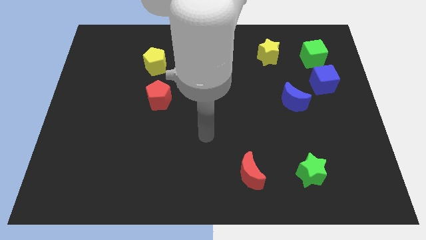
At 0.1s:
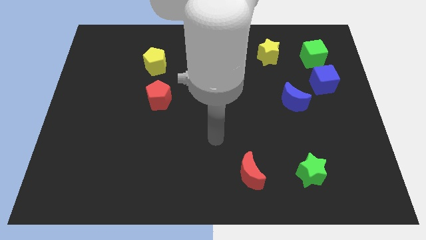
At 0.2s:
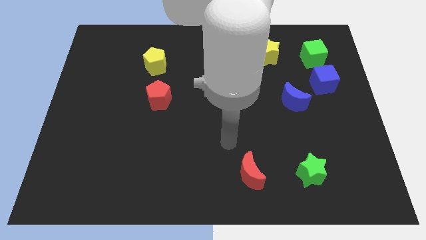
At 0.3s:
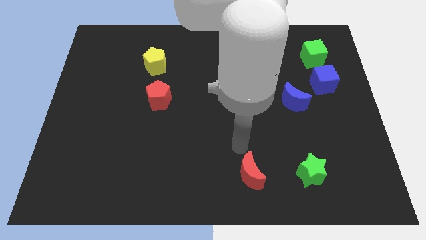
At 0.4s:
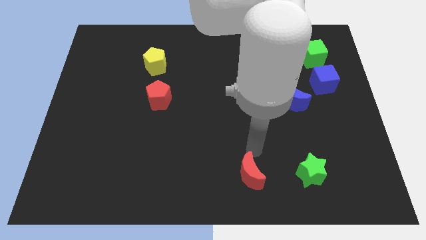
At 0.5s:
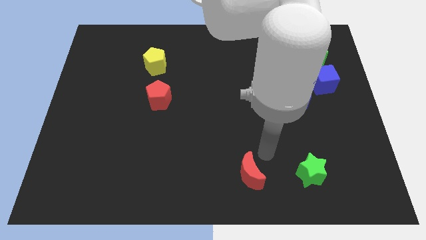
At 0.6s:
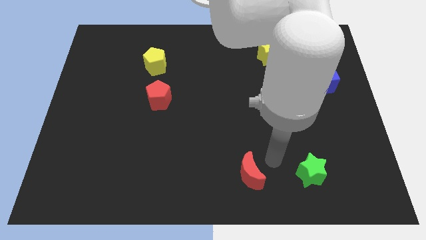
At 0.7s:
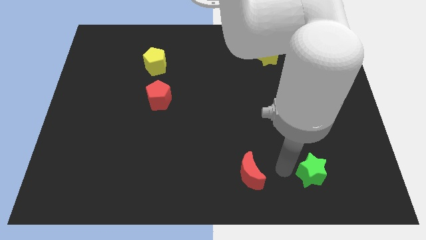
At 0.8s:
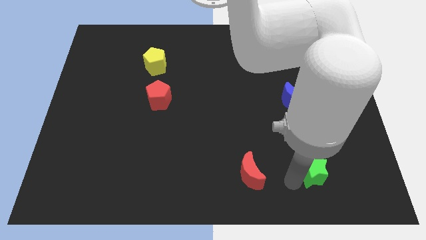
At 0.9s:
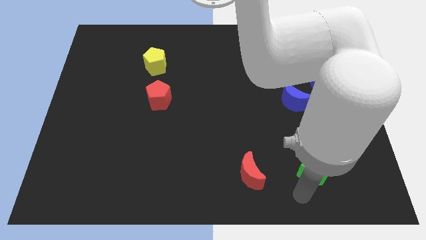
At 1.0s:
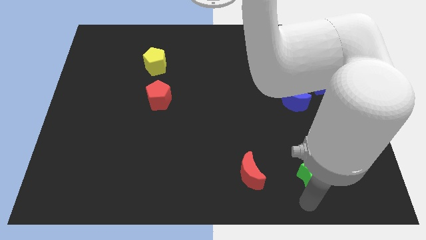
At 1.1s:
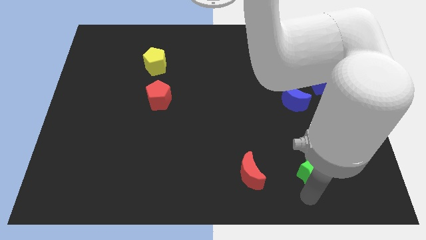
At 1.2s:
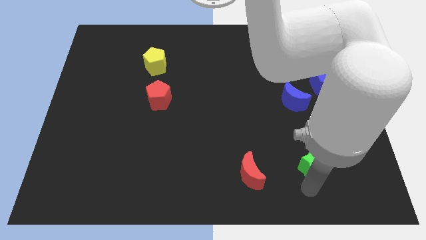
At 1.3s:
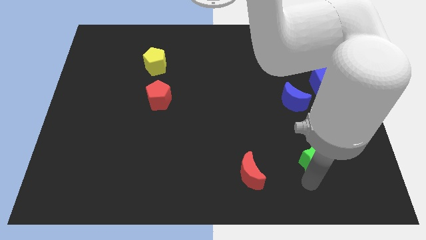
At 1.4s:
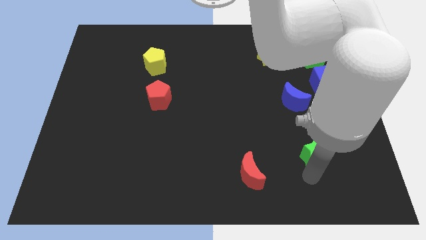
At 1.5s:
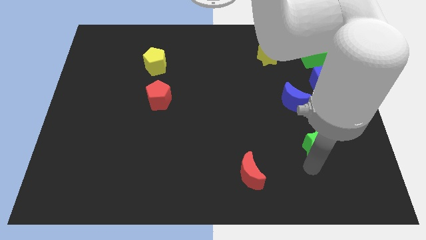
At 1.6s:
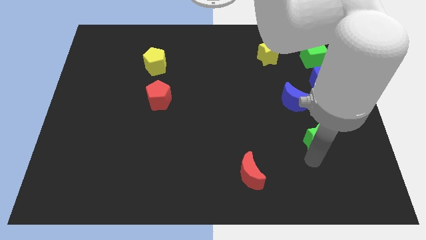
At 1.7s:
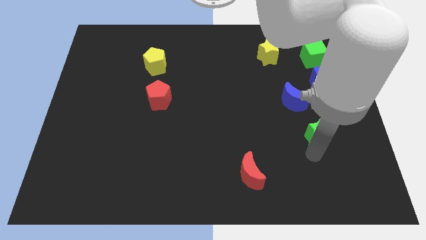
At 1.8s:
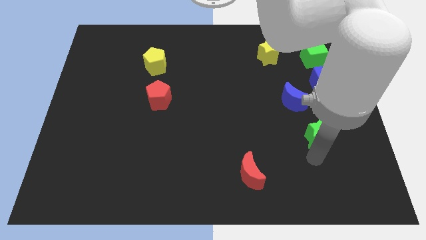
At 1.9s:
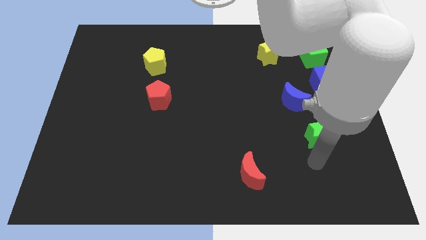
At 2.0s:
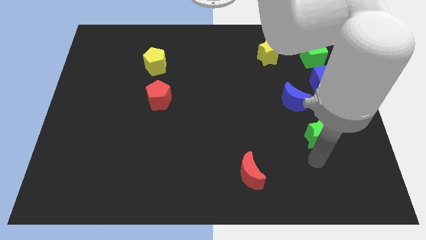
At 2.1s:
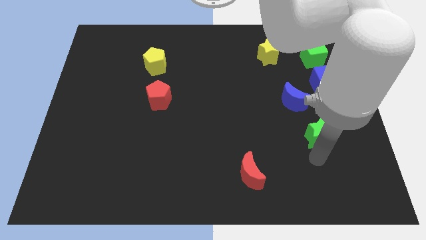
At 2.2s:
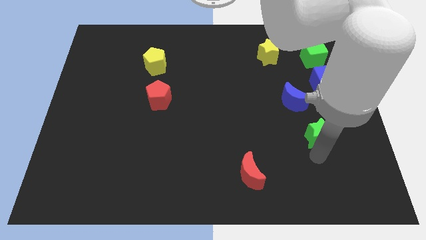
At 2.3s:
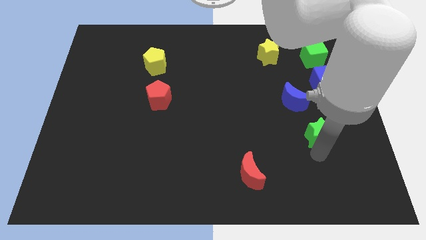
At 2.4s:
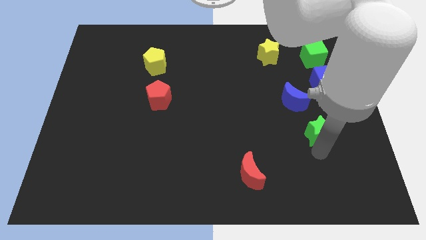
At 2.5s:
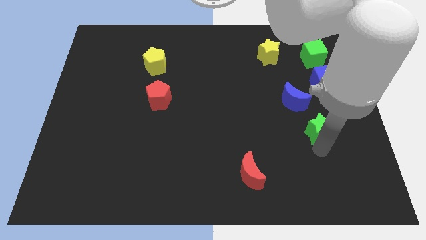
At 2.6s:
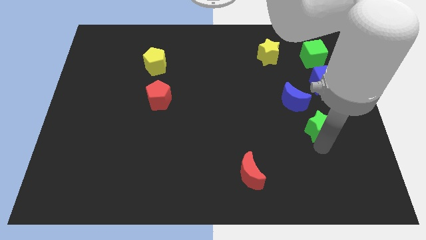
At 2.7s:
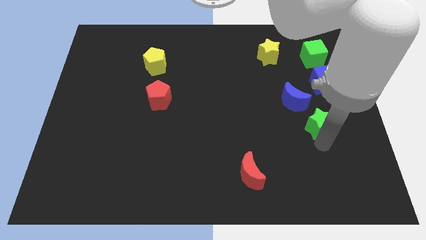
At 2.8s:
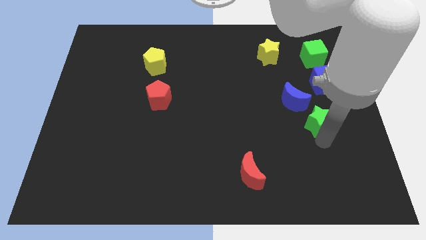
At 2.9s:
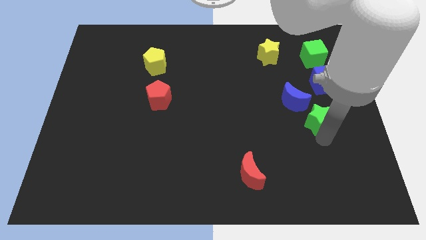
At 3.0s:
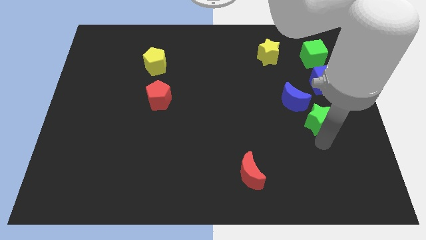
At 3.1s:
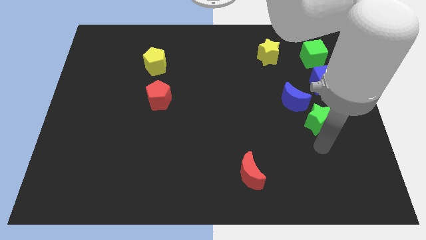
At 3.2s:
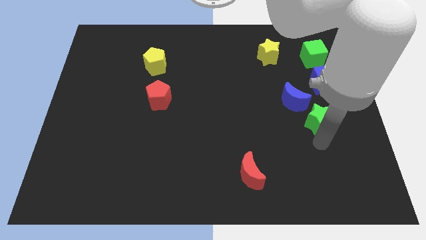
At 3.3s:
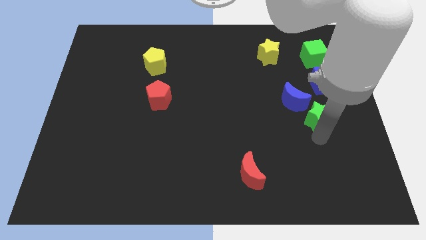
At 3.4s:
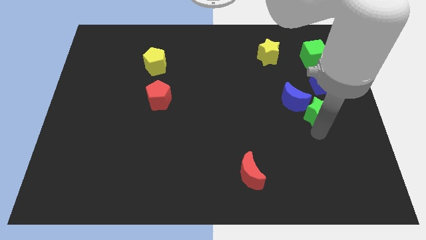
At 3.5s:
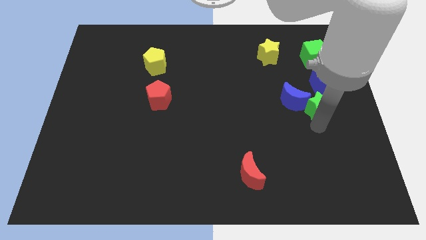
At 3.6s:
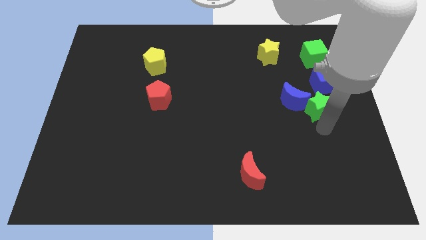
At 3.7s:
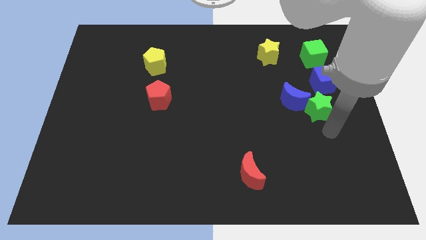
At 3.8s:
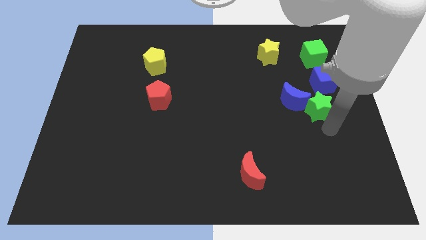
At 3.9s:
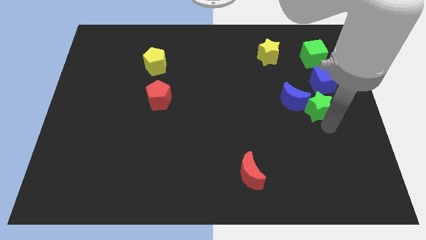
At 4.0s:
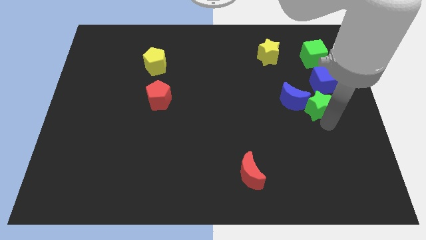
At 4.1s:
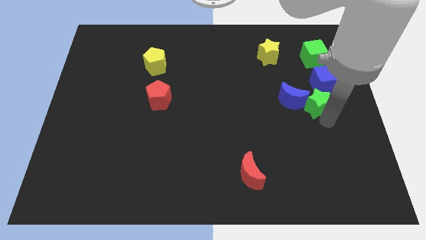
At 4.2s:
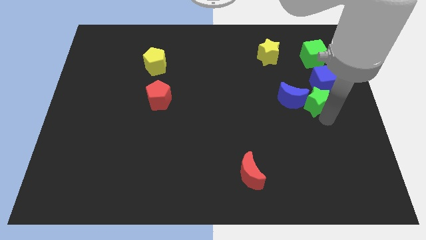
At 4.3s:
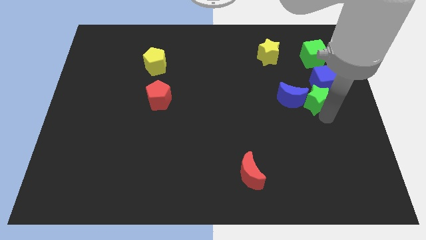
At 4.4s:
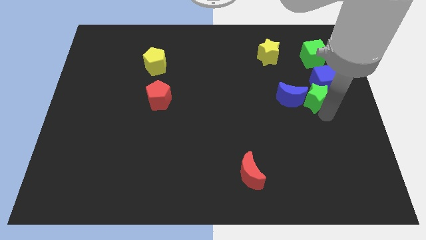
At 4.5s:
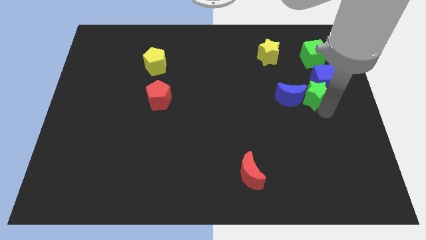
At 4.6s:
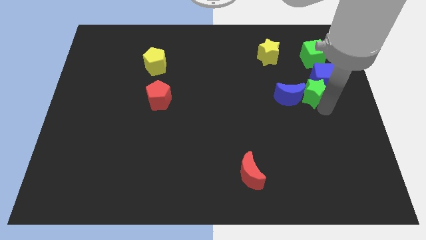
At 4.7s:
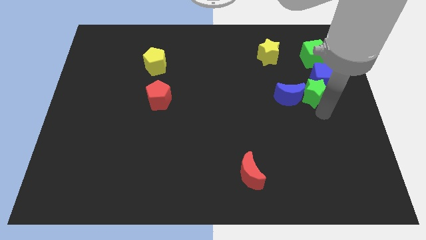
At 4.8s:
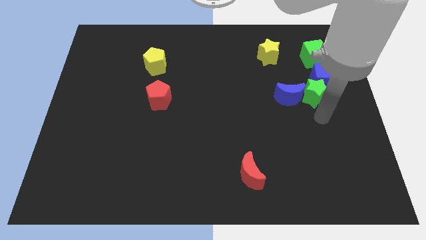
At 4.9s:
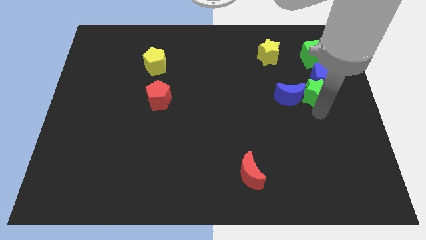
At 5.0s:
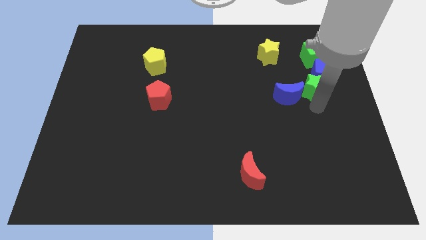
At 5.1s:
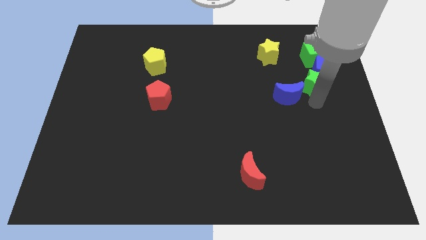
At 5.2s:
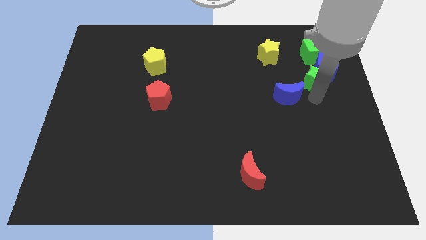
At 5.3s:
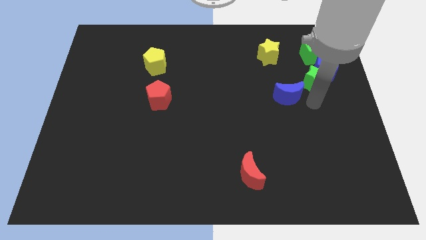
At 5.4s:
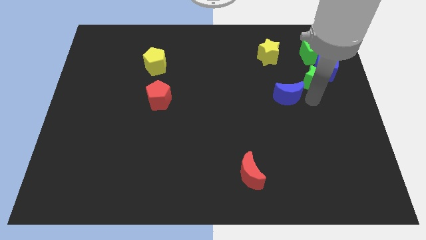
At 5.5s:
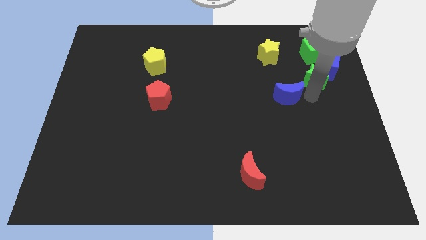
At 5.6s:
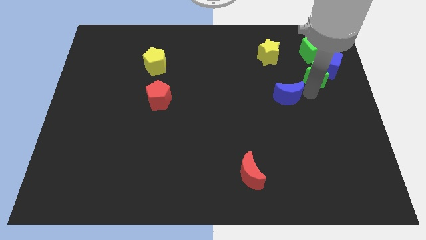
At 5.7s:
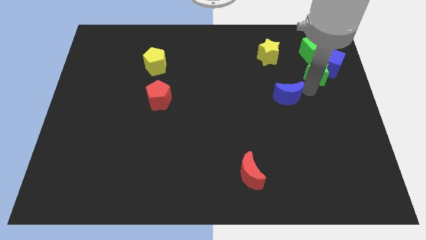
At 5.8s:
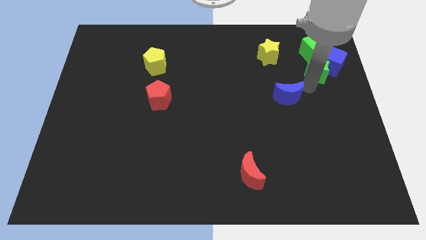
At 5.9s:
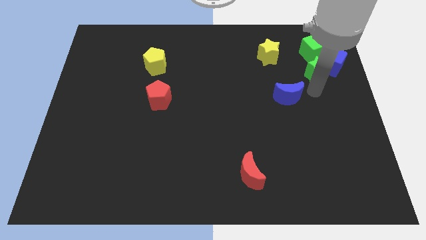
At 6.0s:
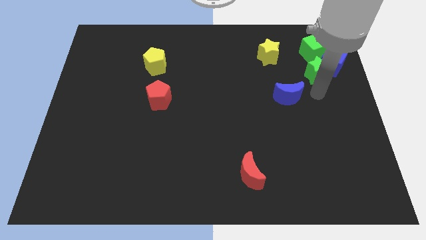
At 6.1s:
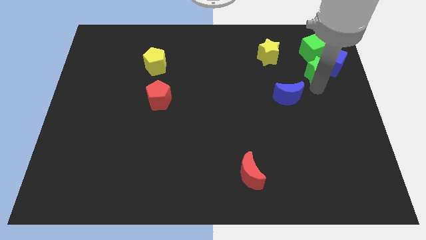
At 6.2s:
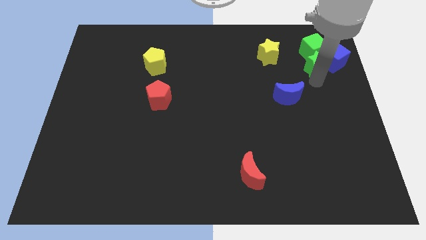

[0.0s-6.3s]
put the green star close to the green cube
